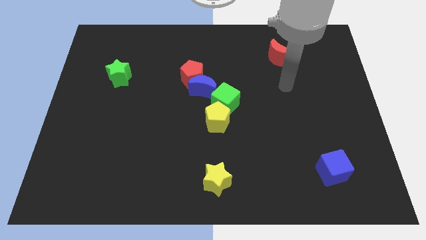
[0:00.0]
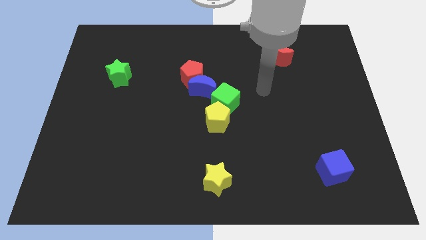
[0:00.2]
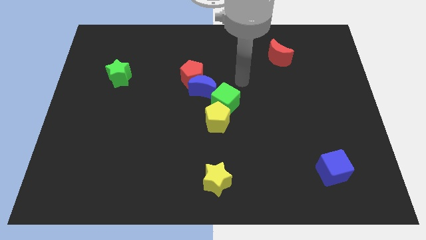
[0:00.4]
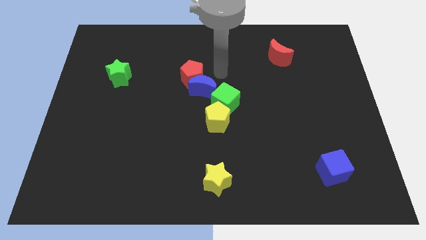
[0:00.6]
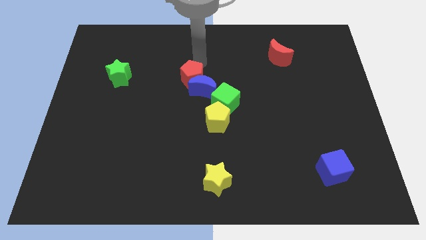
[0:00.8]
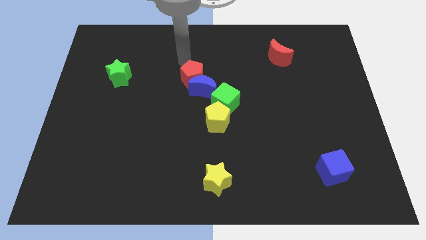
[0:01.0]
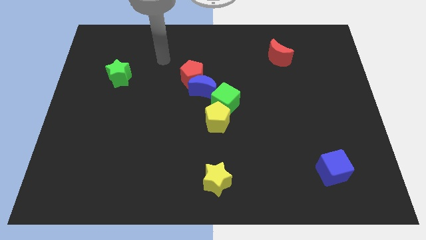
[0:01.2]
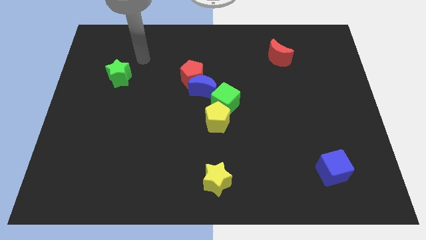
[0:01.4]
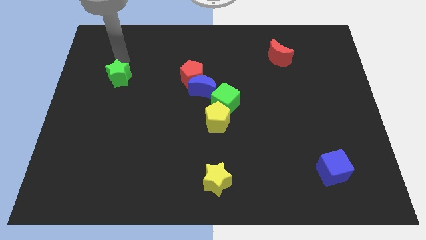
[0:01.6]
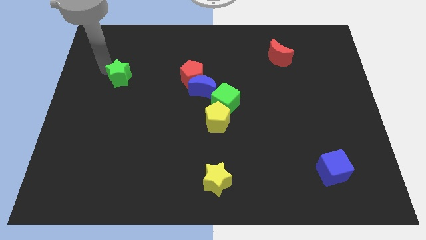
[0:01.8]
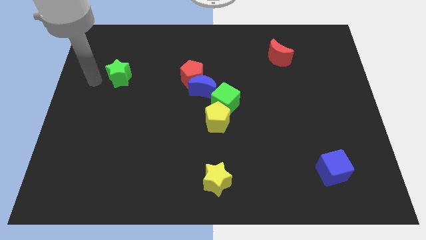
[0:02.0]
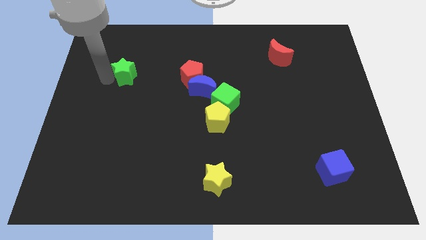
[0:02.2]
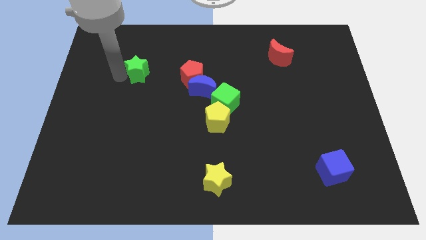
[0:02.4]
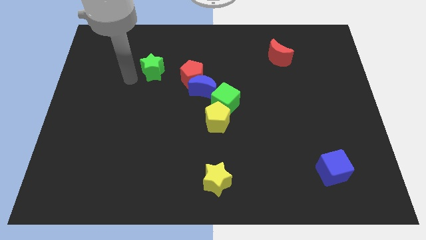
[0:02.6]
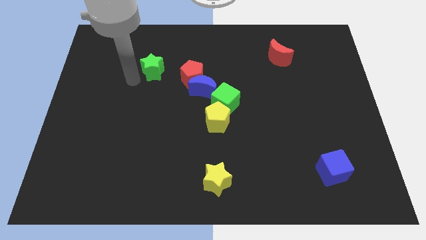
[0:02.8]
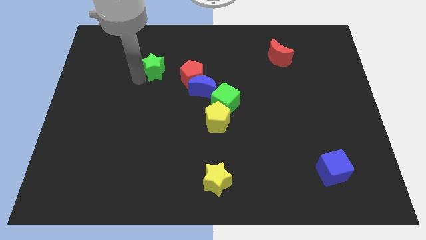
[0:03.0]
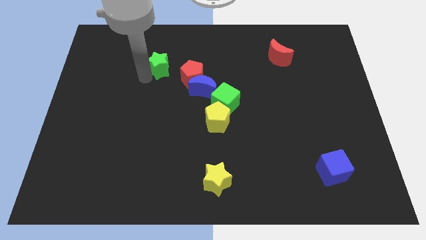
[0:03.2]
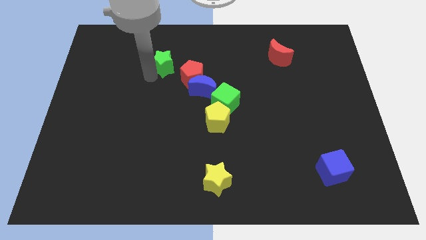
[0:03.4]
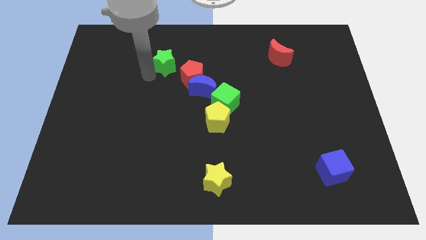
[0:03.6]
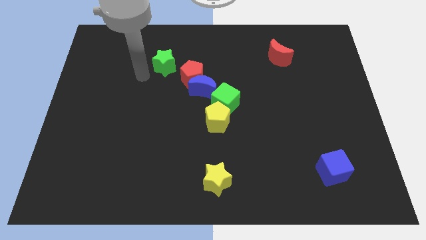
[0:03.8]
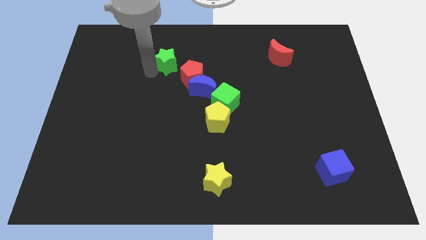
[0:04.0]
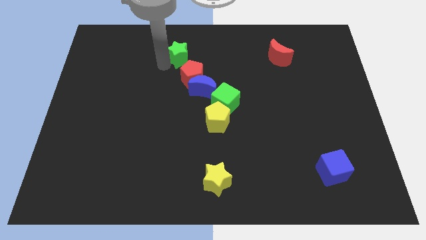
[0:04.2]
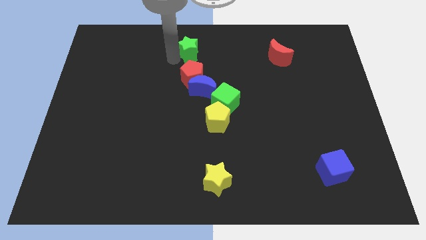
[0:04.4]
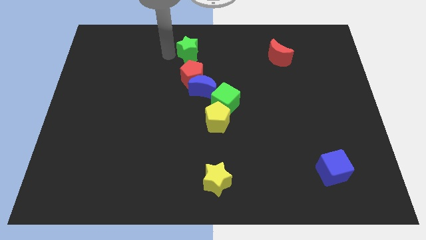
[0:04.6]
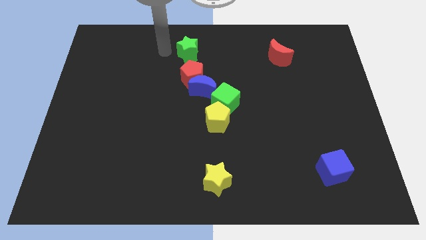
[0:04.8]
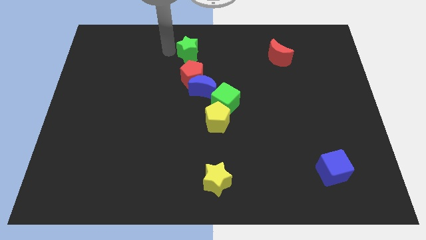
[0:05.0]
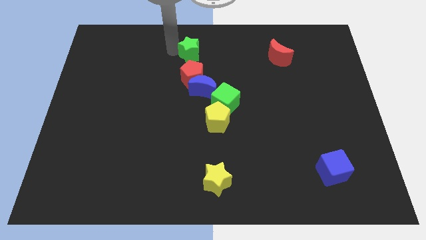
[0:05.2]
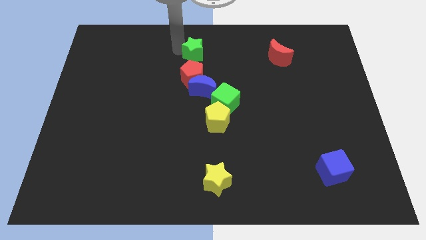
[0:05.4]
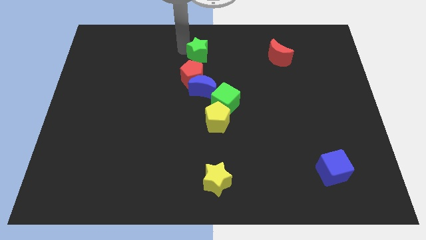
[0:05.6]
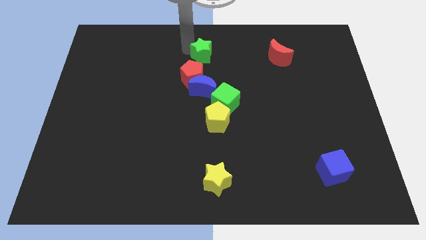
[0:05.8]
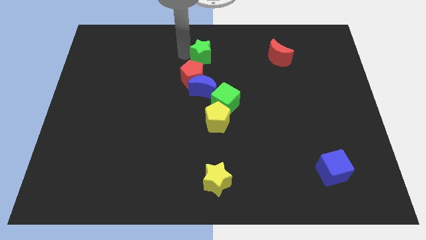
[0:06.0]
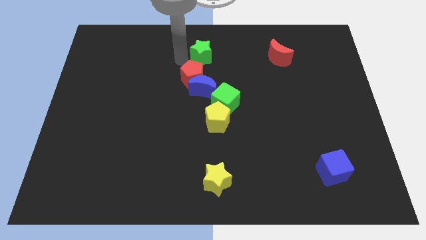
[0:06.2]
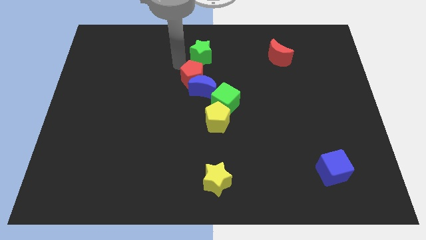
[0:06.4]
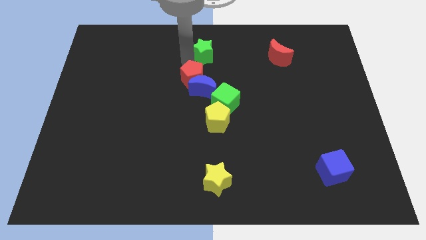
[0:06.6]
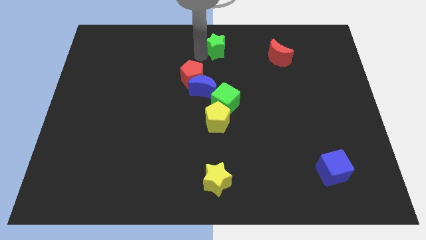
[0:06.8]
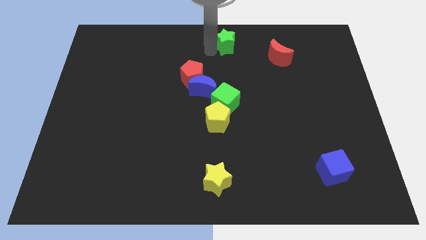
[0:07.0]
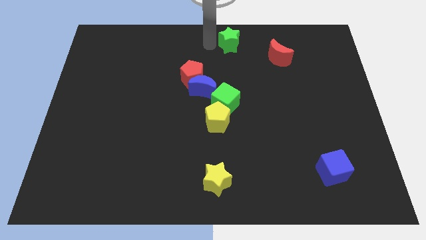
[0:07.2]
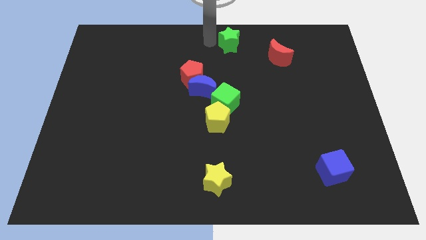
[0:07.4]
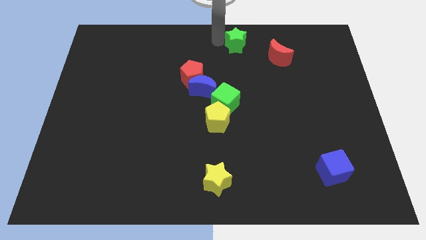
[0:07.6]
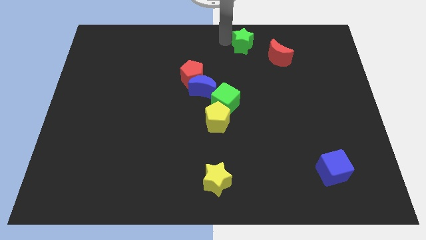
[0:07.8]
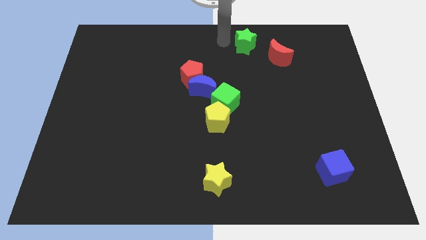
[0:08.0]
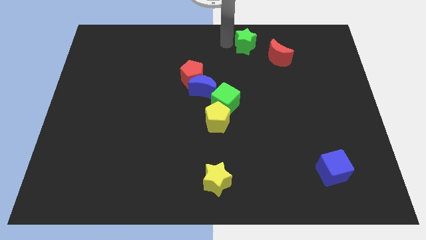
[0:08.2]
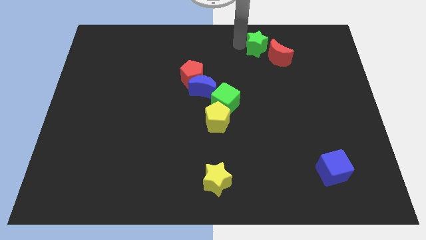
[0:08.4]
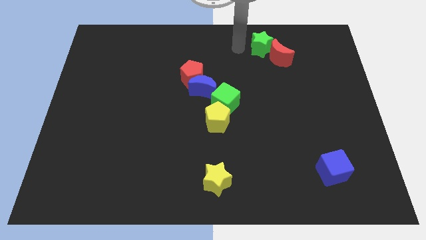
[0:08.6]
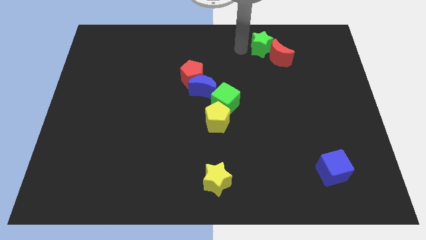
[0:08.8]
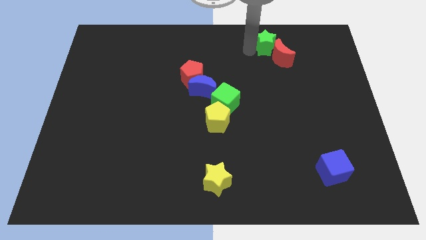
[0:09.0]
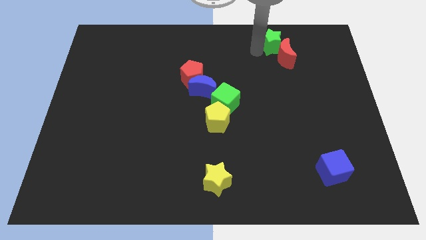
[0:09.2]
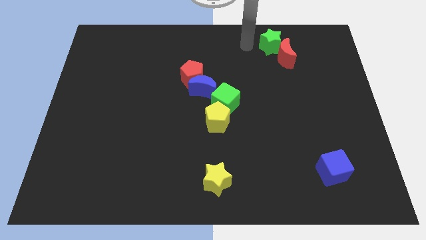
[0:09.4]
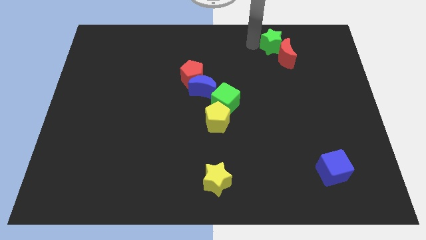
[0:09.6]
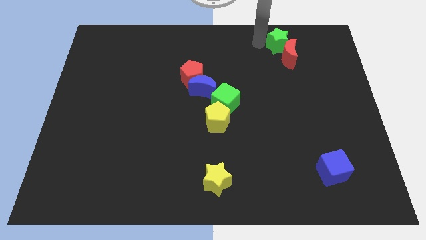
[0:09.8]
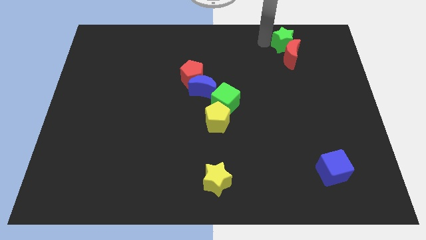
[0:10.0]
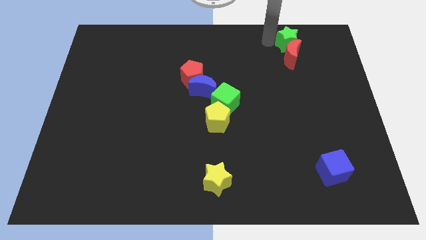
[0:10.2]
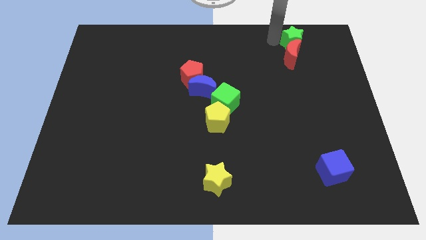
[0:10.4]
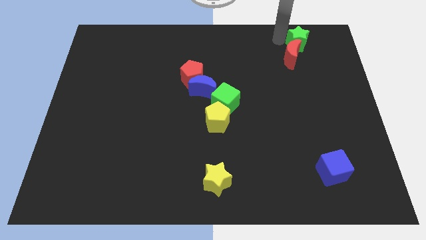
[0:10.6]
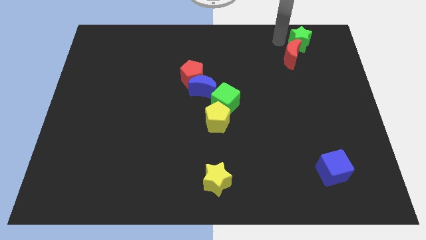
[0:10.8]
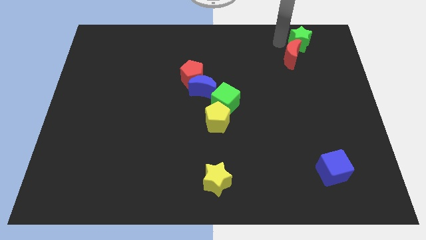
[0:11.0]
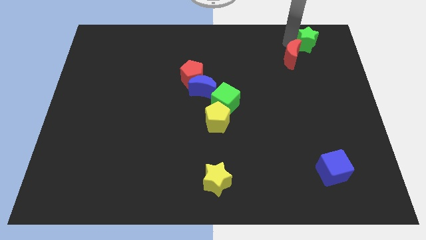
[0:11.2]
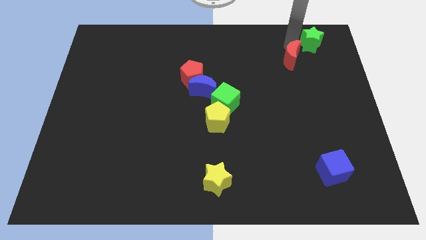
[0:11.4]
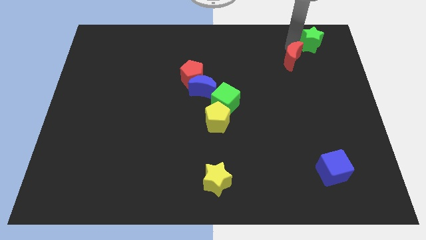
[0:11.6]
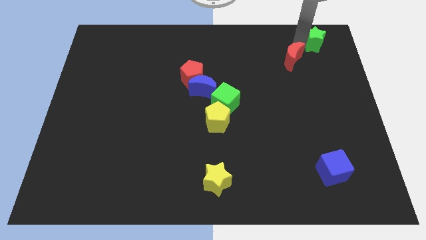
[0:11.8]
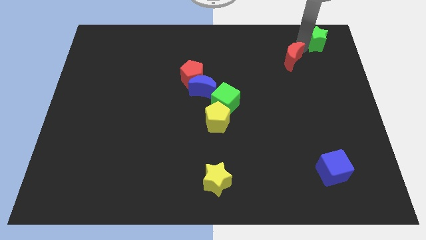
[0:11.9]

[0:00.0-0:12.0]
move the green star to the top right of the board
